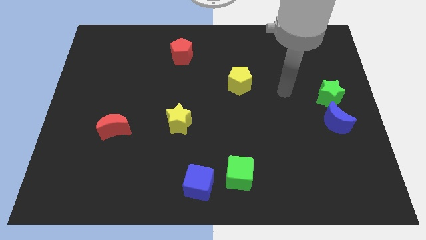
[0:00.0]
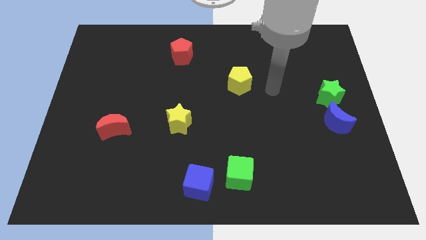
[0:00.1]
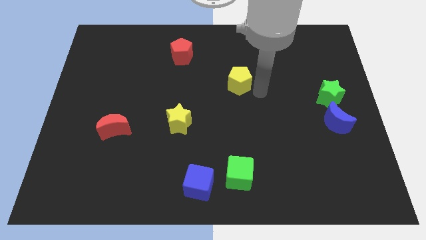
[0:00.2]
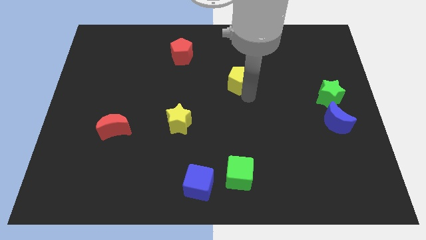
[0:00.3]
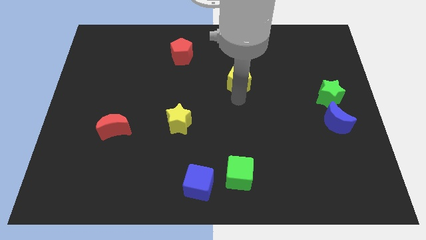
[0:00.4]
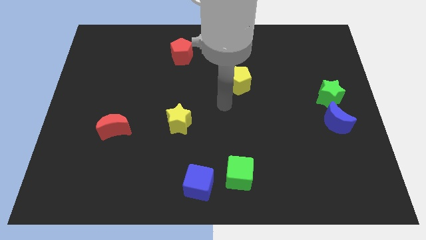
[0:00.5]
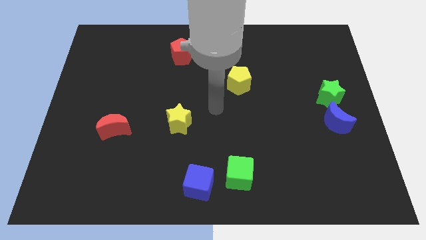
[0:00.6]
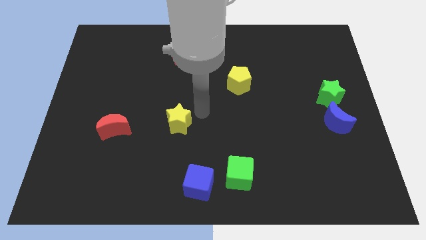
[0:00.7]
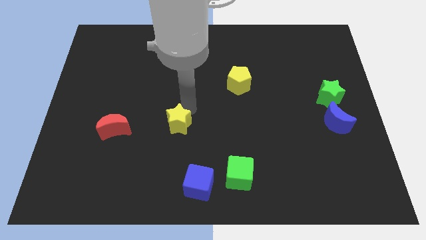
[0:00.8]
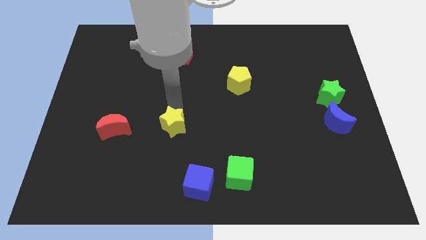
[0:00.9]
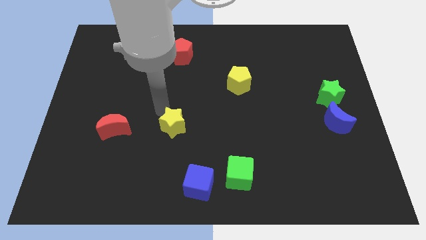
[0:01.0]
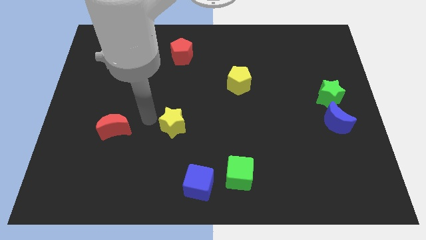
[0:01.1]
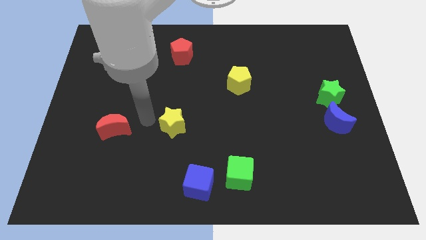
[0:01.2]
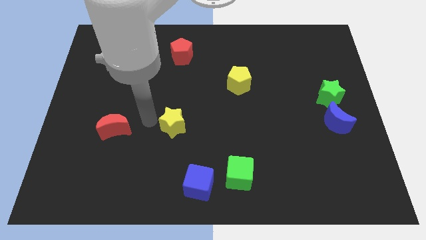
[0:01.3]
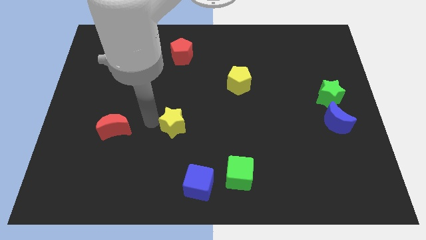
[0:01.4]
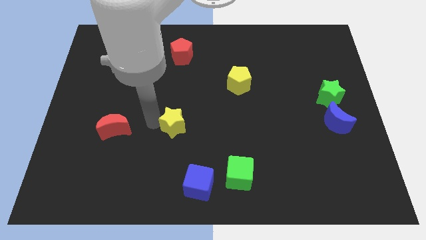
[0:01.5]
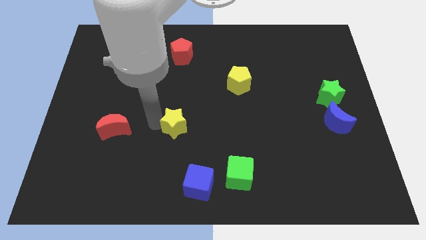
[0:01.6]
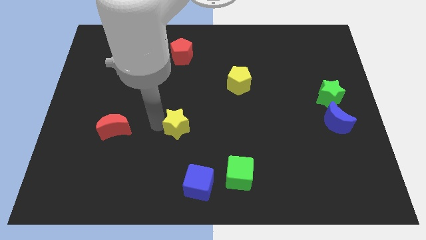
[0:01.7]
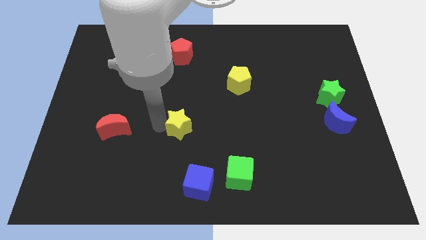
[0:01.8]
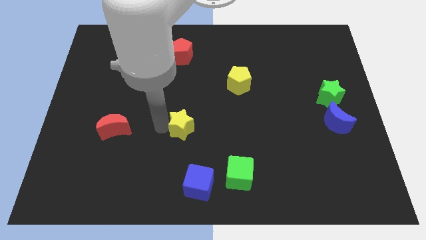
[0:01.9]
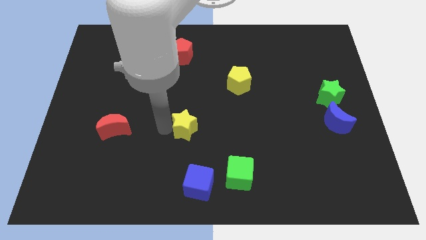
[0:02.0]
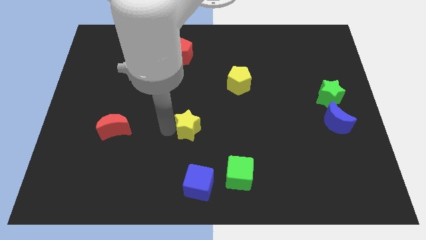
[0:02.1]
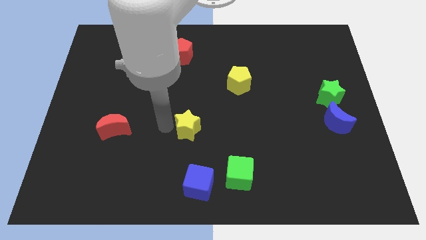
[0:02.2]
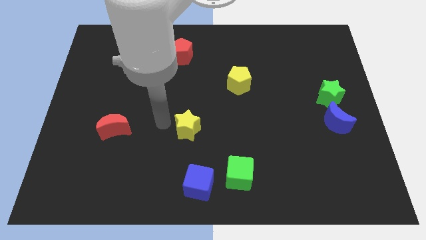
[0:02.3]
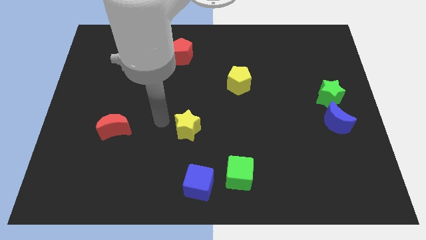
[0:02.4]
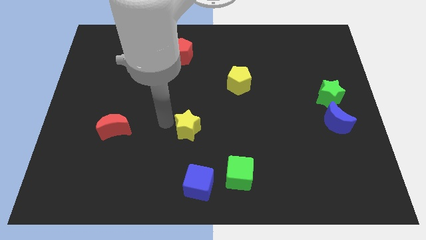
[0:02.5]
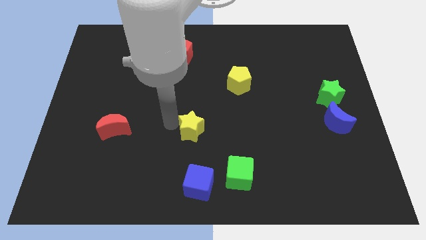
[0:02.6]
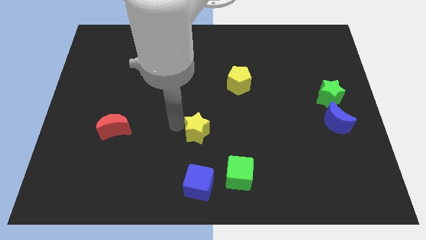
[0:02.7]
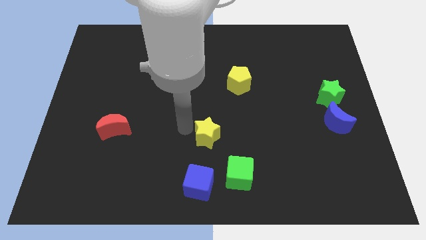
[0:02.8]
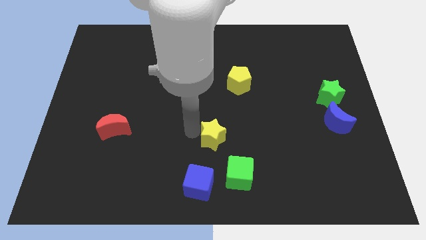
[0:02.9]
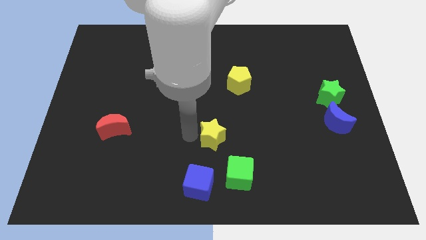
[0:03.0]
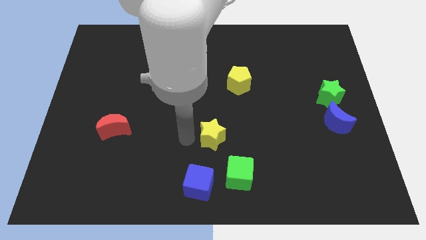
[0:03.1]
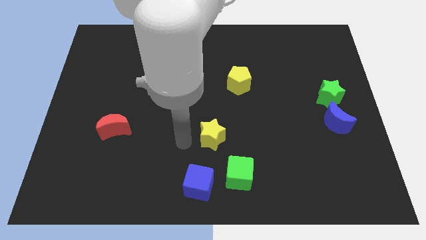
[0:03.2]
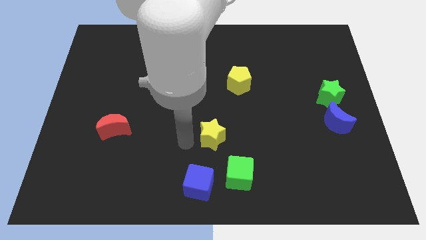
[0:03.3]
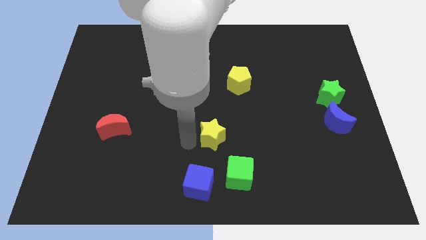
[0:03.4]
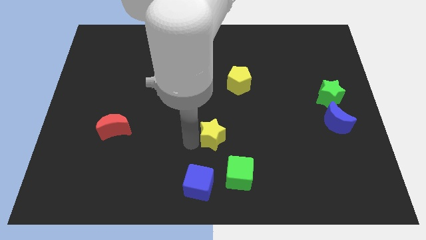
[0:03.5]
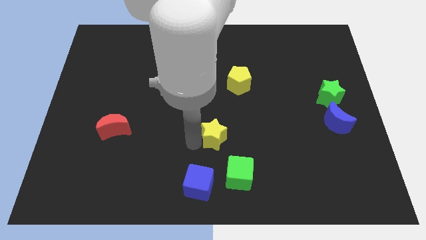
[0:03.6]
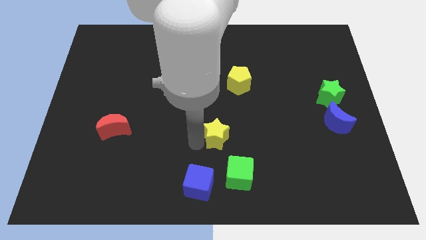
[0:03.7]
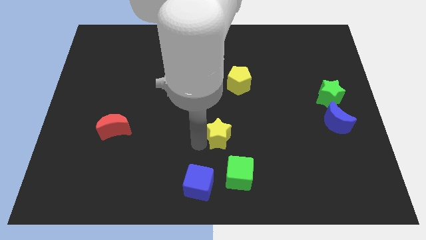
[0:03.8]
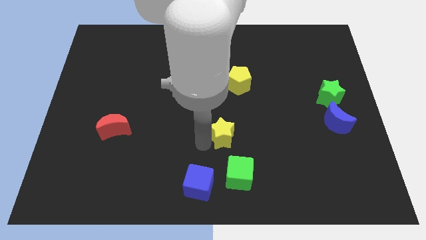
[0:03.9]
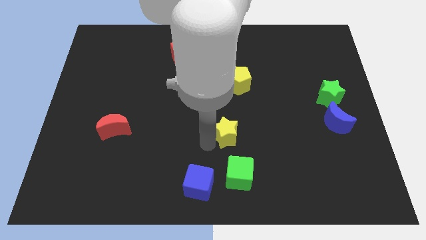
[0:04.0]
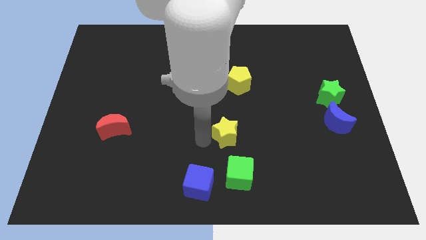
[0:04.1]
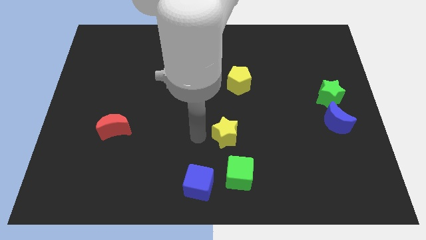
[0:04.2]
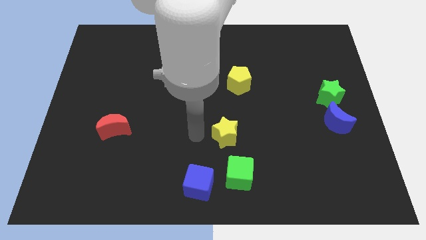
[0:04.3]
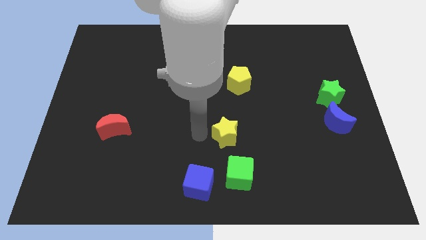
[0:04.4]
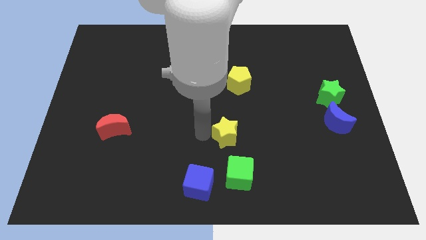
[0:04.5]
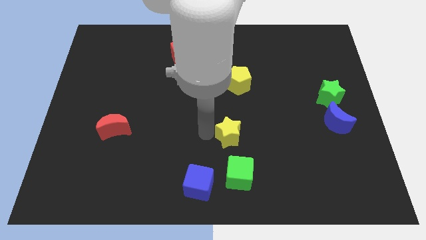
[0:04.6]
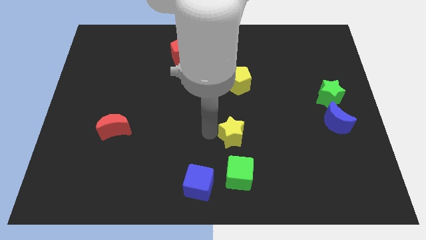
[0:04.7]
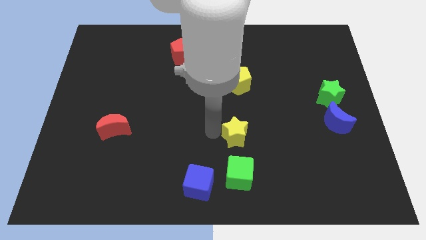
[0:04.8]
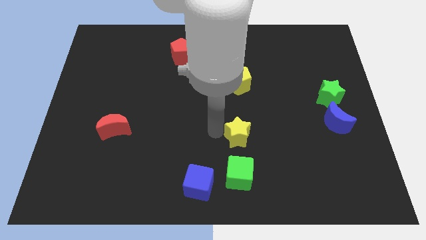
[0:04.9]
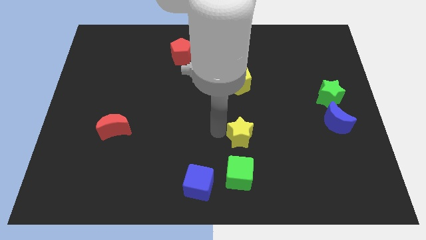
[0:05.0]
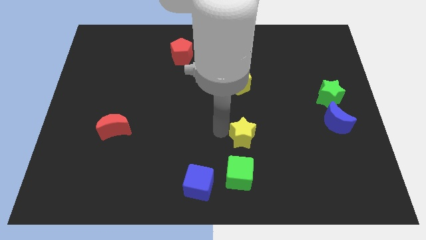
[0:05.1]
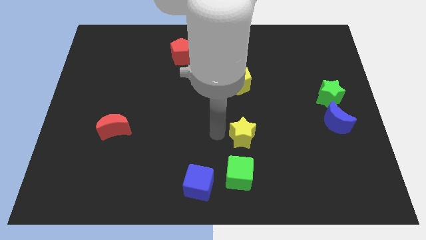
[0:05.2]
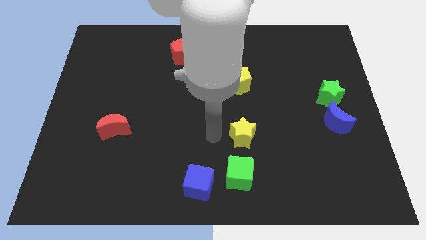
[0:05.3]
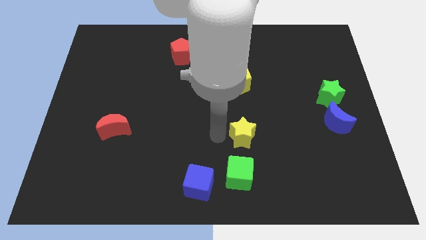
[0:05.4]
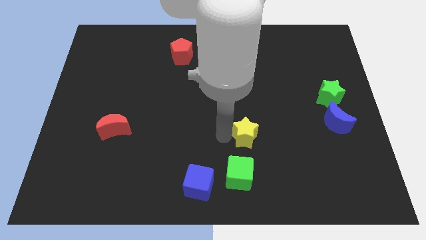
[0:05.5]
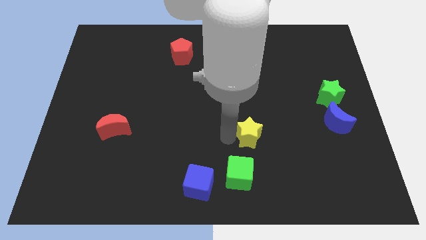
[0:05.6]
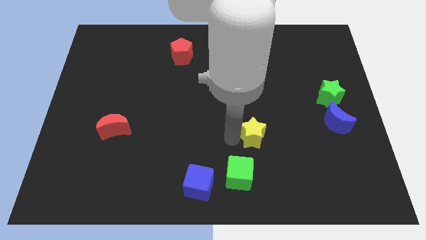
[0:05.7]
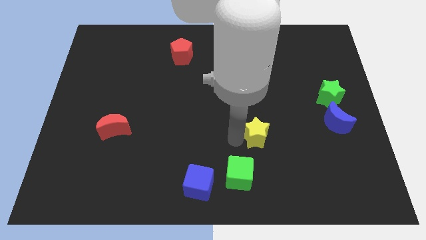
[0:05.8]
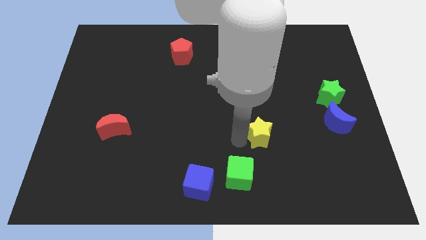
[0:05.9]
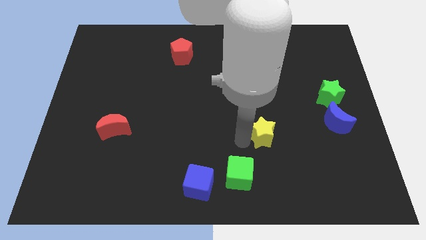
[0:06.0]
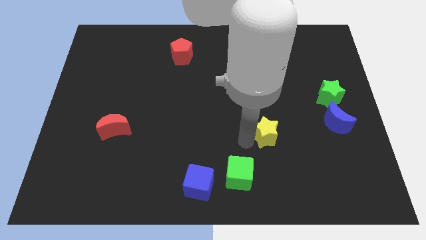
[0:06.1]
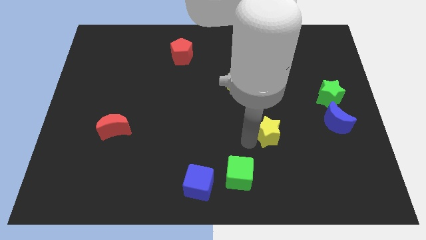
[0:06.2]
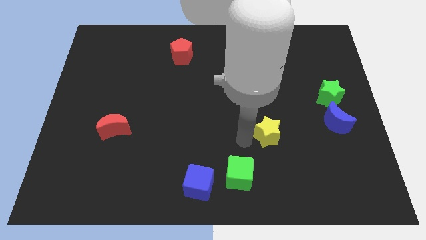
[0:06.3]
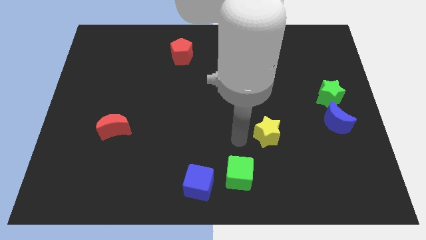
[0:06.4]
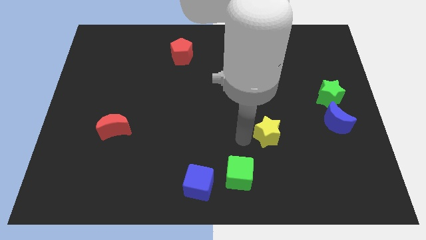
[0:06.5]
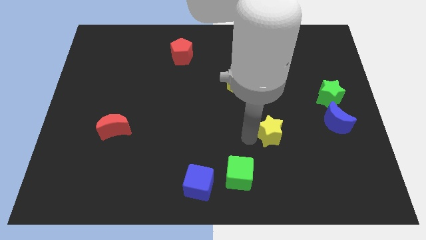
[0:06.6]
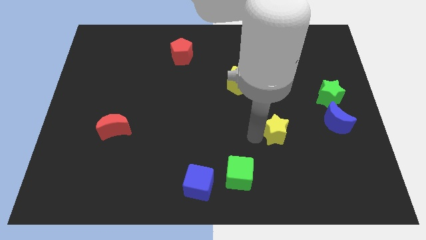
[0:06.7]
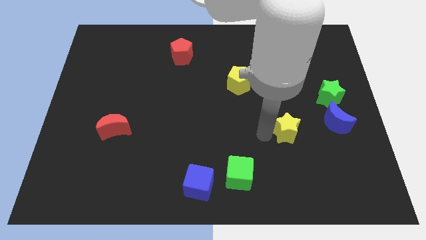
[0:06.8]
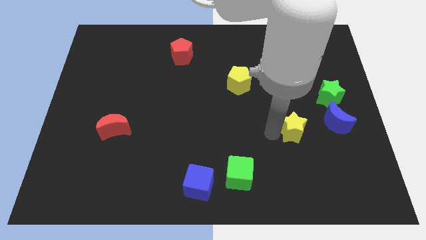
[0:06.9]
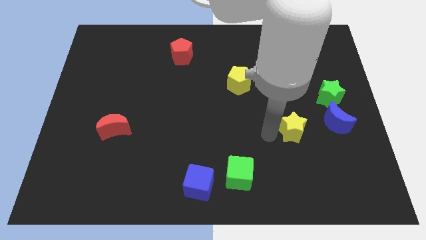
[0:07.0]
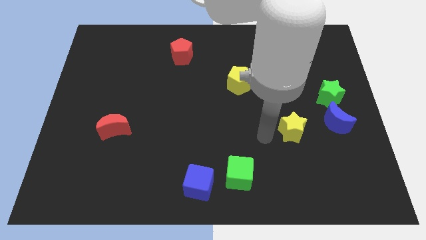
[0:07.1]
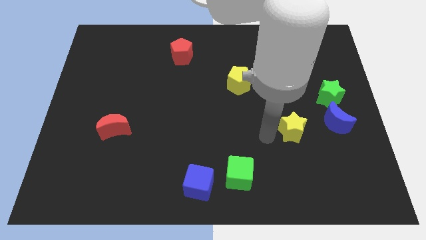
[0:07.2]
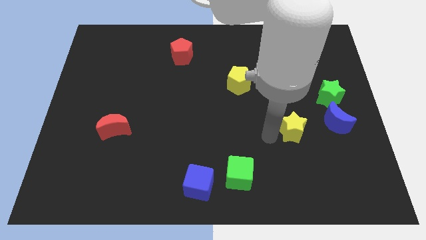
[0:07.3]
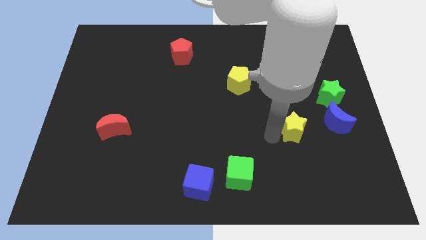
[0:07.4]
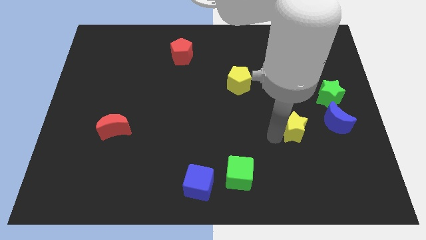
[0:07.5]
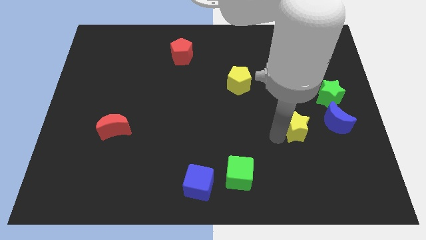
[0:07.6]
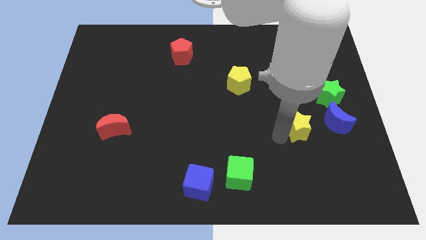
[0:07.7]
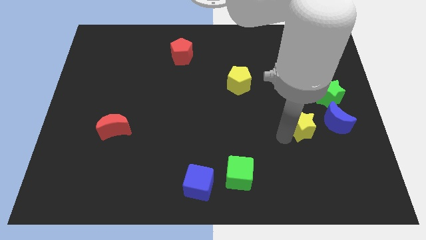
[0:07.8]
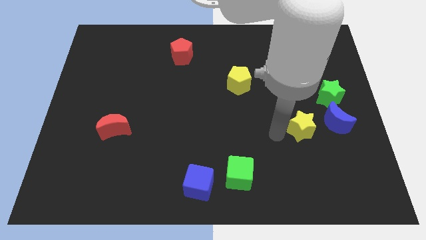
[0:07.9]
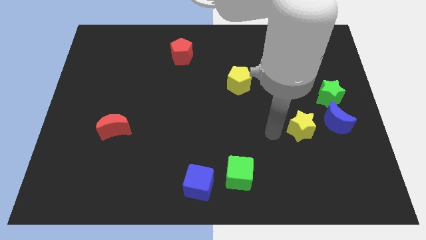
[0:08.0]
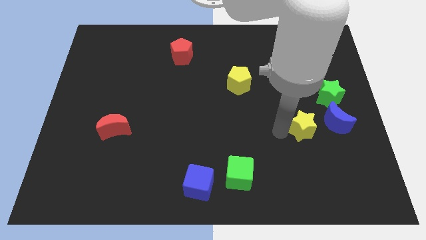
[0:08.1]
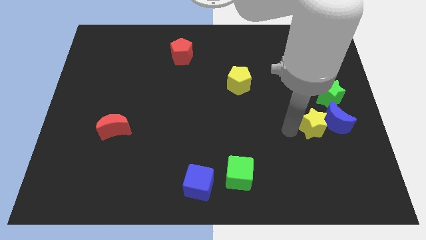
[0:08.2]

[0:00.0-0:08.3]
move the yellow star next to the blue moon
